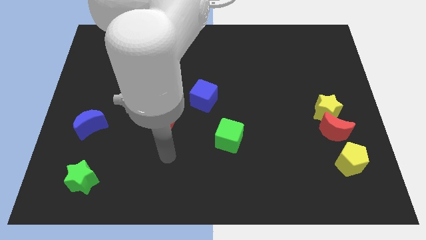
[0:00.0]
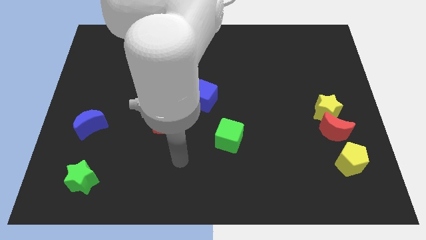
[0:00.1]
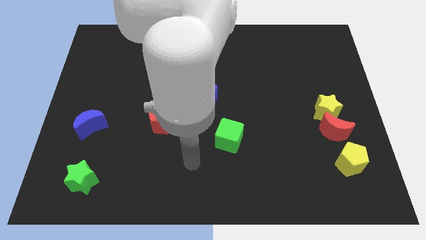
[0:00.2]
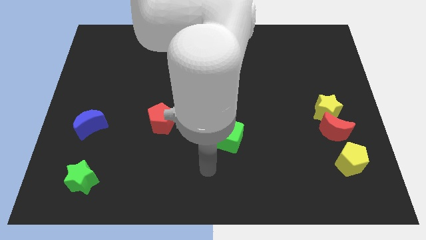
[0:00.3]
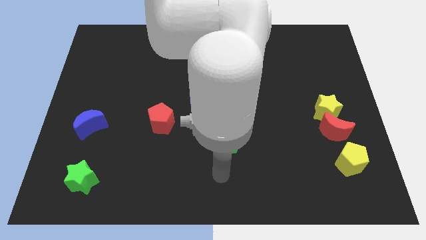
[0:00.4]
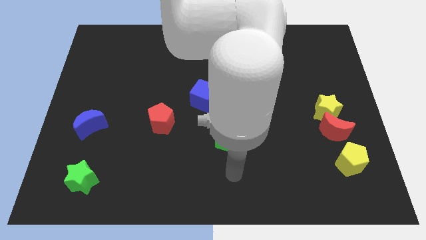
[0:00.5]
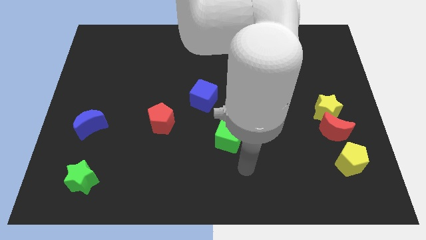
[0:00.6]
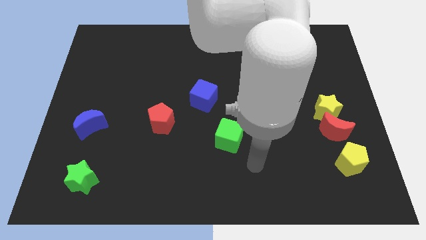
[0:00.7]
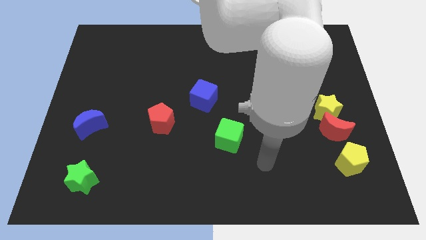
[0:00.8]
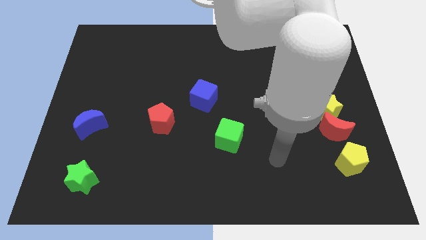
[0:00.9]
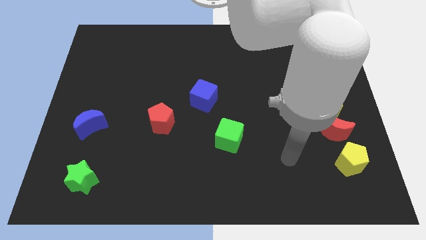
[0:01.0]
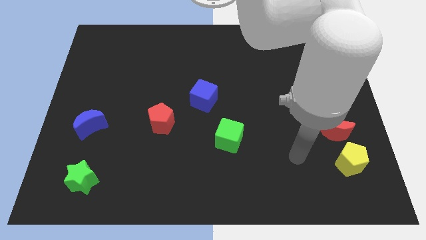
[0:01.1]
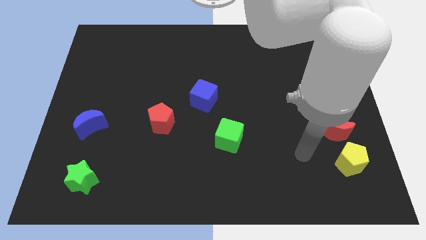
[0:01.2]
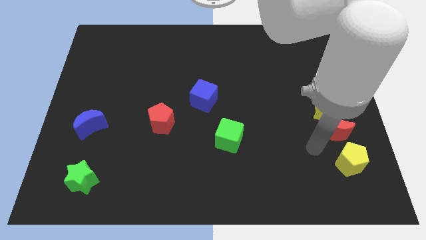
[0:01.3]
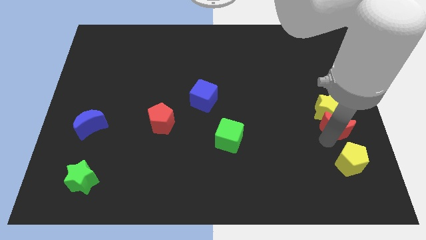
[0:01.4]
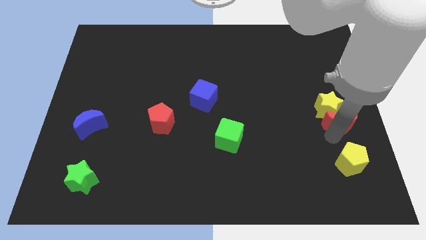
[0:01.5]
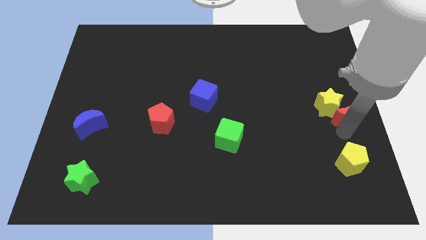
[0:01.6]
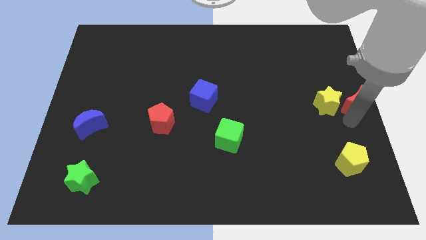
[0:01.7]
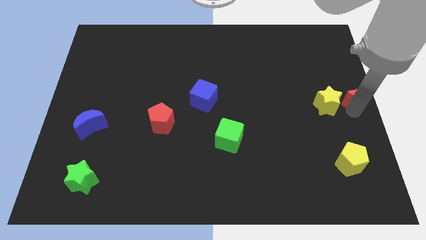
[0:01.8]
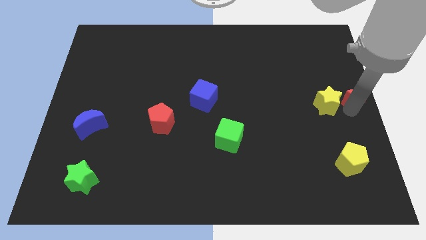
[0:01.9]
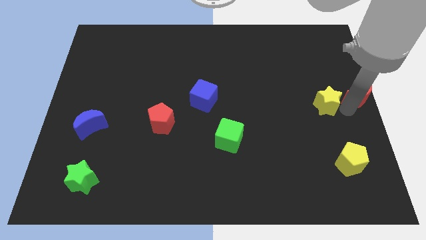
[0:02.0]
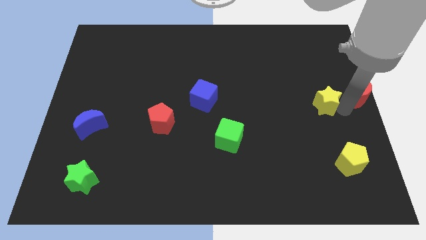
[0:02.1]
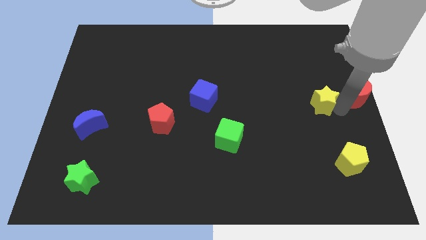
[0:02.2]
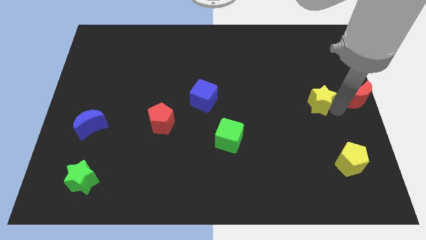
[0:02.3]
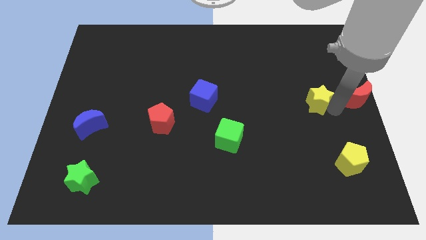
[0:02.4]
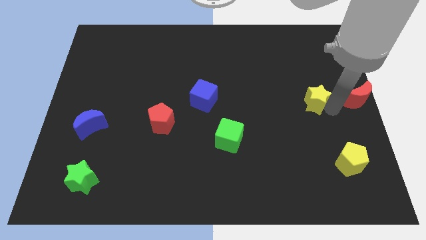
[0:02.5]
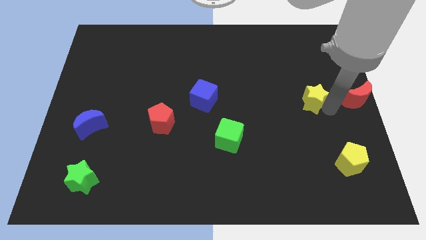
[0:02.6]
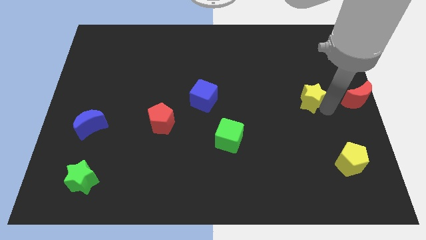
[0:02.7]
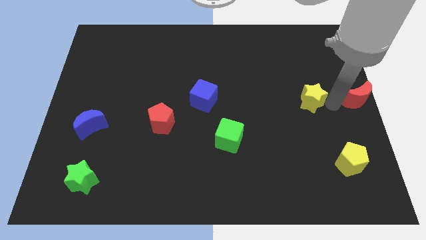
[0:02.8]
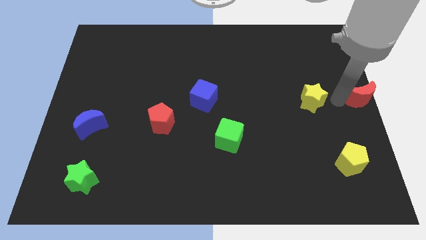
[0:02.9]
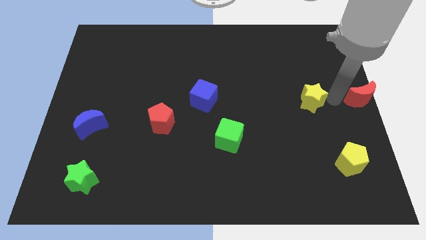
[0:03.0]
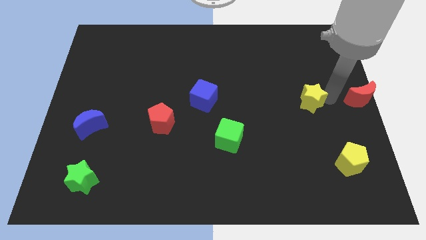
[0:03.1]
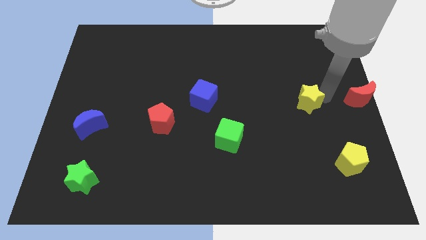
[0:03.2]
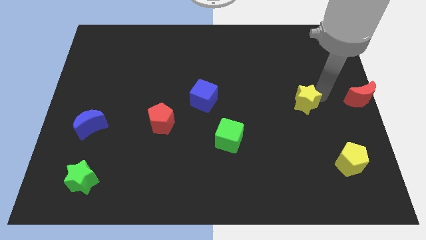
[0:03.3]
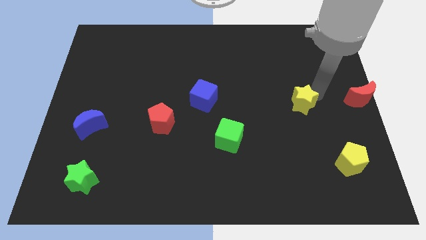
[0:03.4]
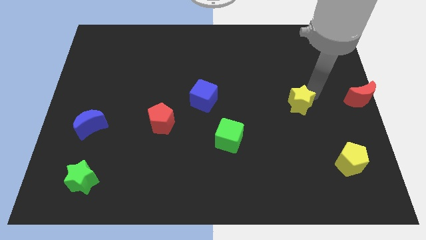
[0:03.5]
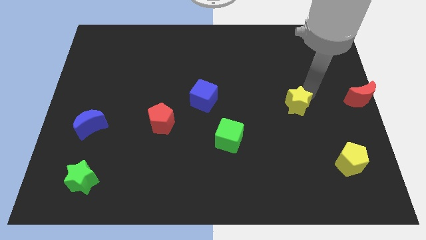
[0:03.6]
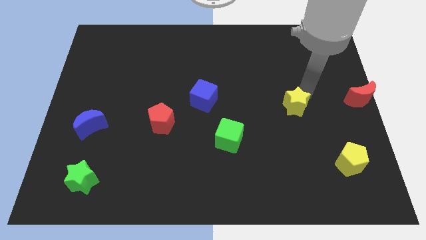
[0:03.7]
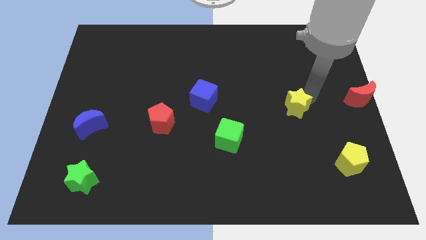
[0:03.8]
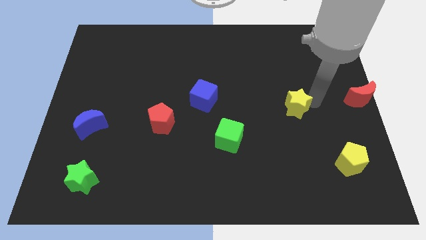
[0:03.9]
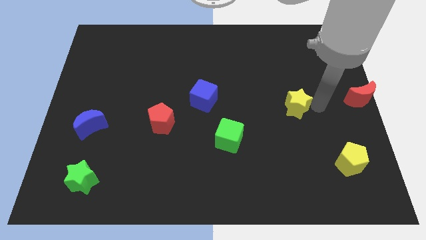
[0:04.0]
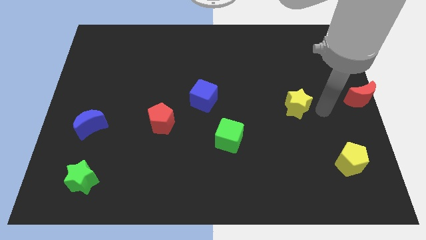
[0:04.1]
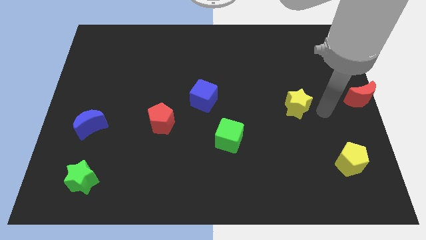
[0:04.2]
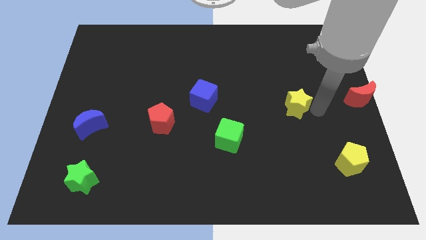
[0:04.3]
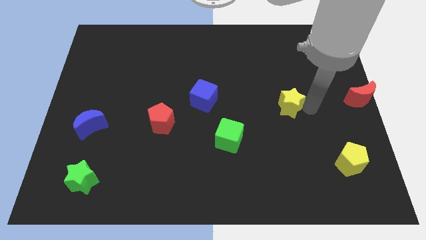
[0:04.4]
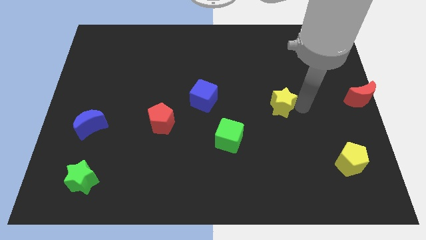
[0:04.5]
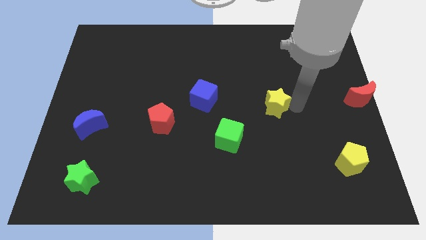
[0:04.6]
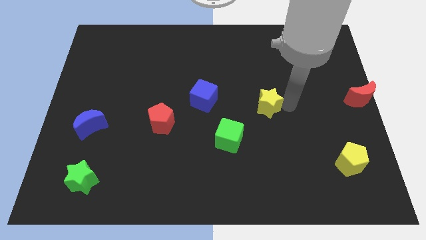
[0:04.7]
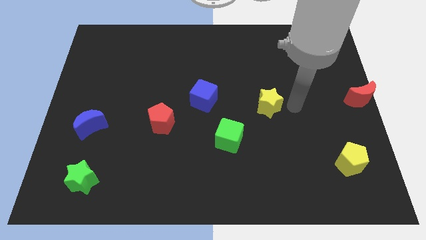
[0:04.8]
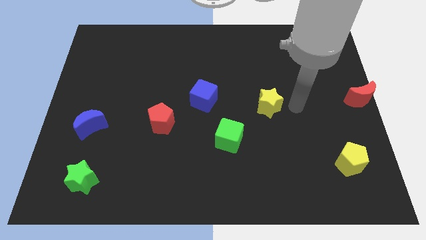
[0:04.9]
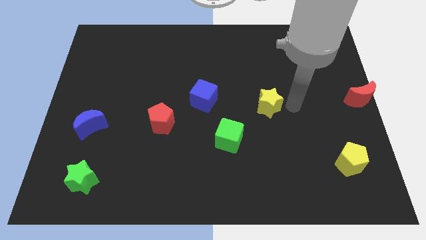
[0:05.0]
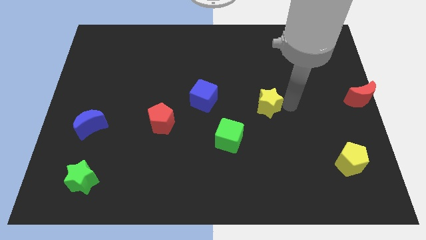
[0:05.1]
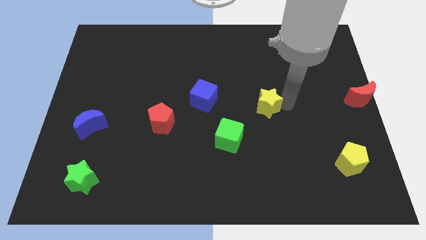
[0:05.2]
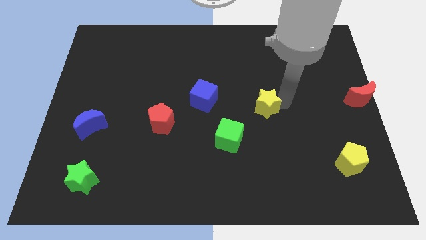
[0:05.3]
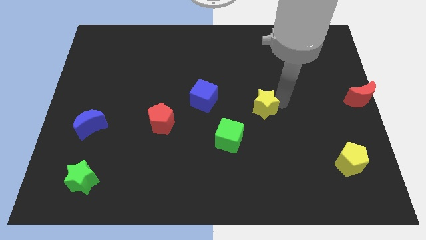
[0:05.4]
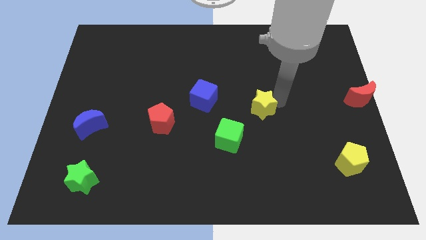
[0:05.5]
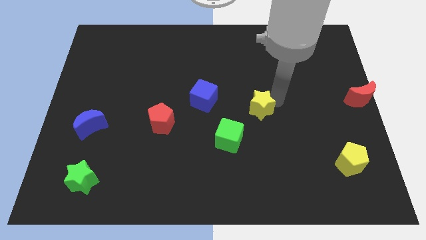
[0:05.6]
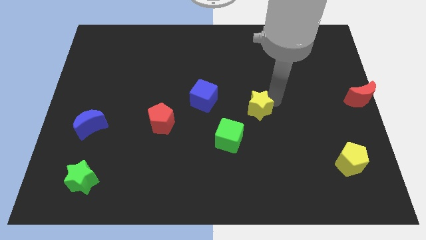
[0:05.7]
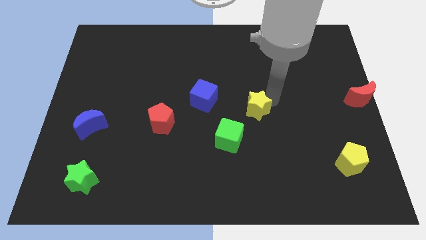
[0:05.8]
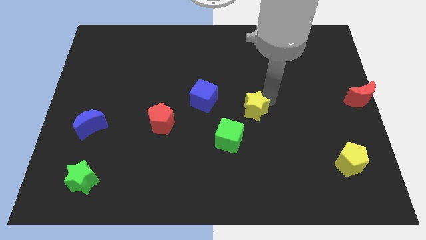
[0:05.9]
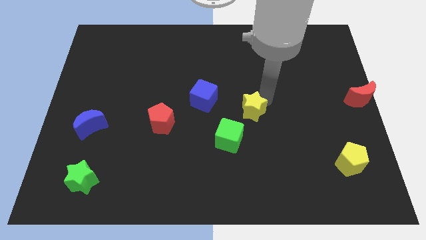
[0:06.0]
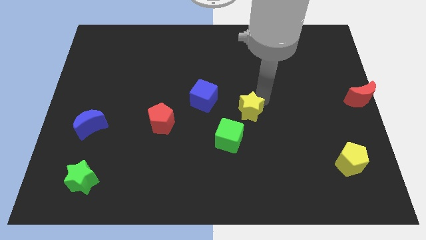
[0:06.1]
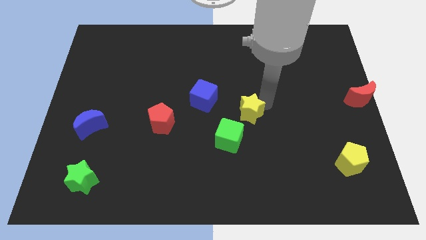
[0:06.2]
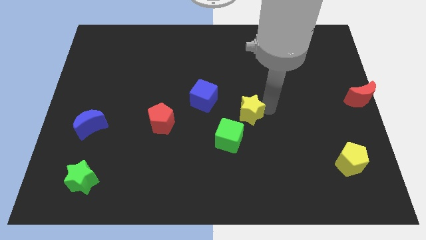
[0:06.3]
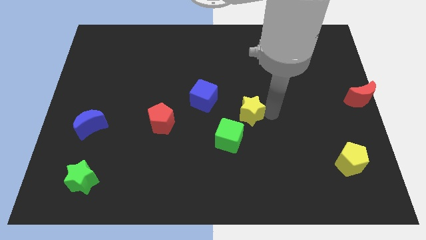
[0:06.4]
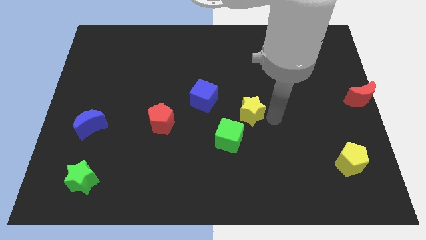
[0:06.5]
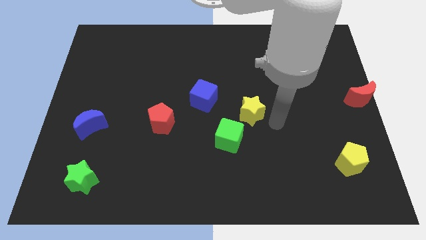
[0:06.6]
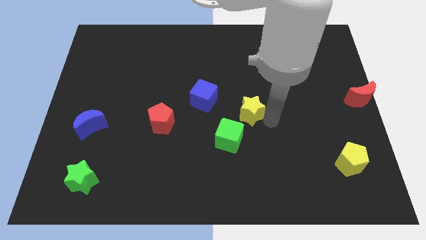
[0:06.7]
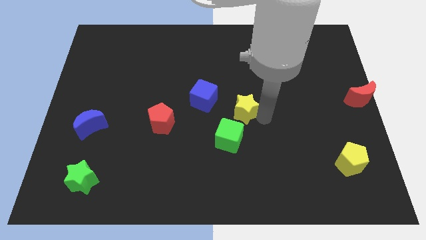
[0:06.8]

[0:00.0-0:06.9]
slide the yellow star above the green cube

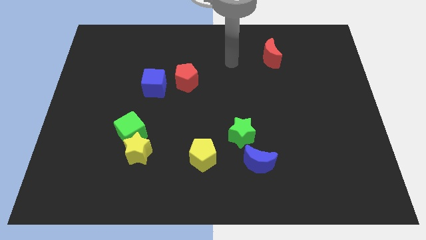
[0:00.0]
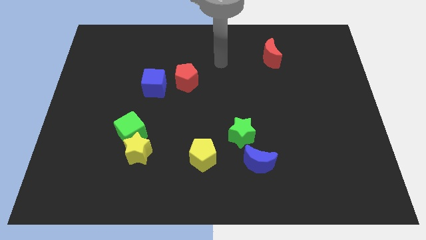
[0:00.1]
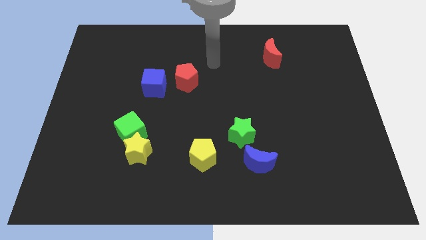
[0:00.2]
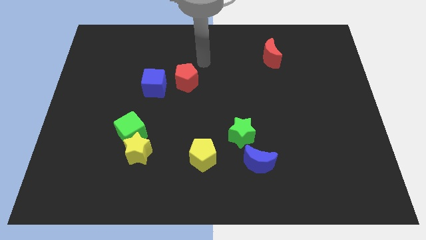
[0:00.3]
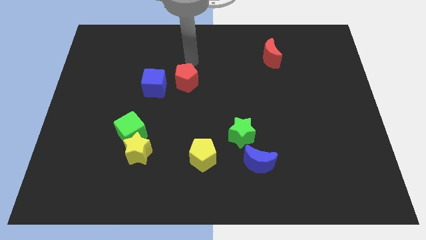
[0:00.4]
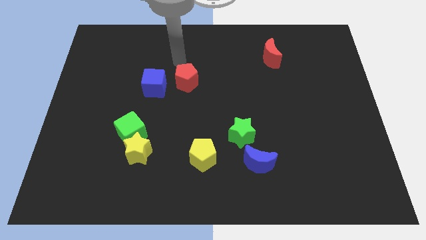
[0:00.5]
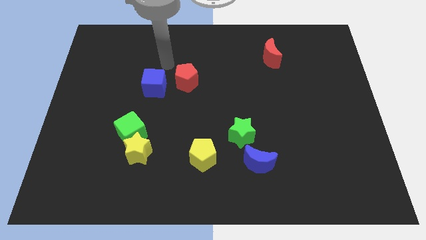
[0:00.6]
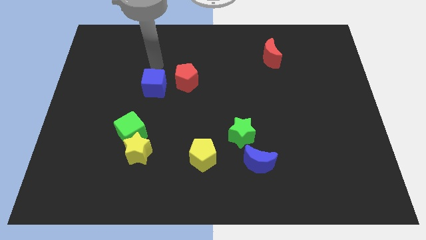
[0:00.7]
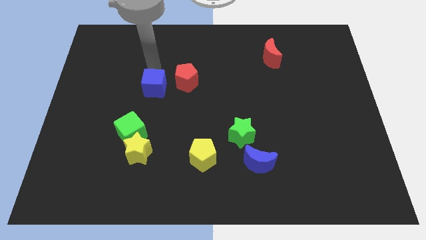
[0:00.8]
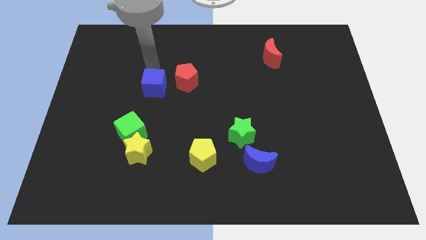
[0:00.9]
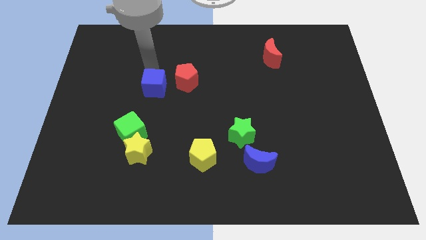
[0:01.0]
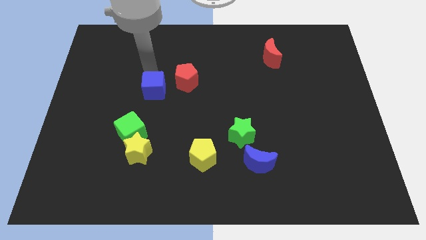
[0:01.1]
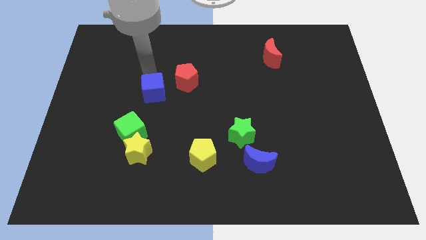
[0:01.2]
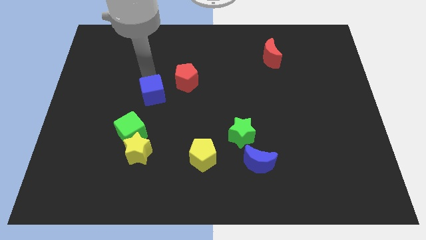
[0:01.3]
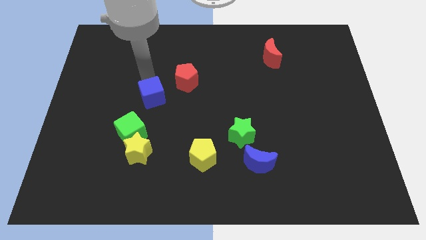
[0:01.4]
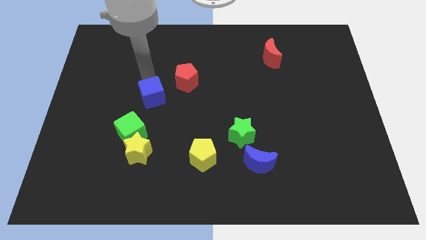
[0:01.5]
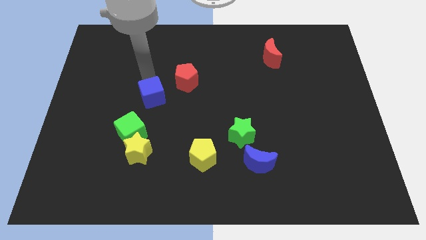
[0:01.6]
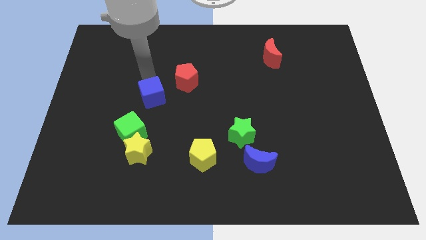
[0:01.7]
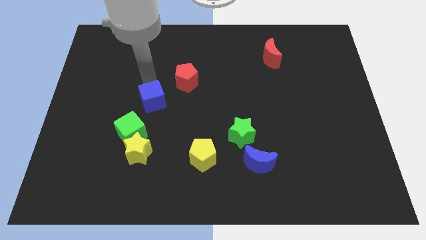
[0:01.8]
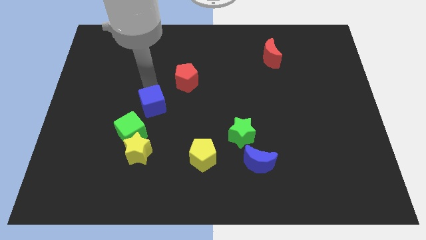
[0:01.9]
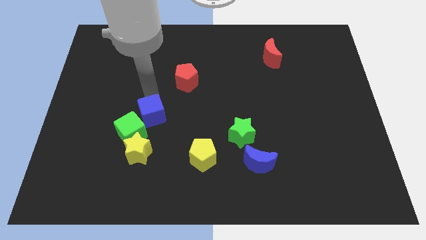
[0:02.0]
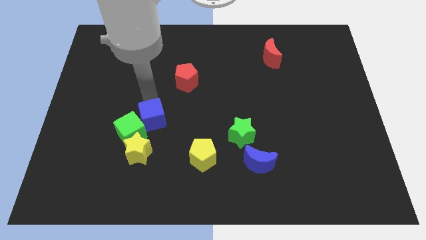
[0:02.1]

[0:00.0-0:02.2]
slide the blue cube to the top right of the yellow star
